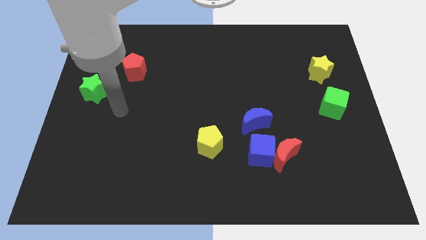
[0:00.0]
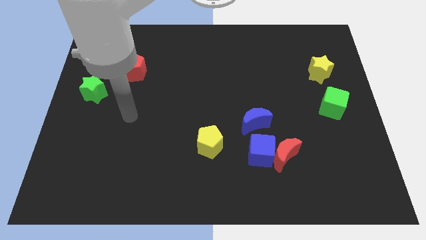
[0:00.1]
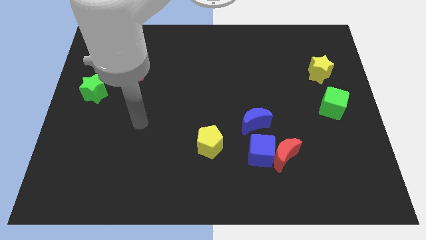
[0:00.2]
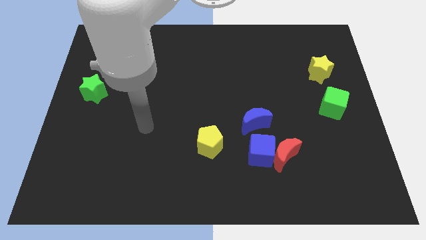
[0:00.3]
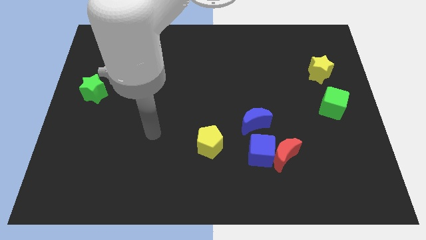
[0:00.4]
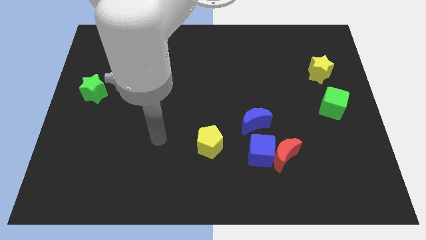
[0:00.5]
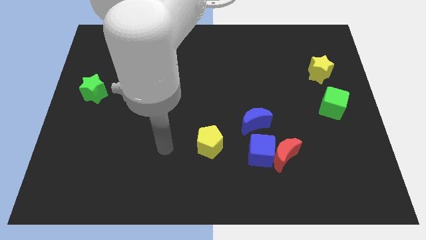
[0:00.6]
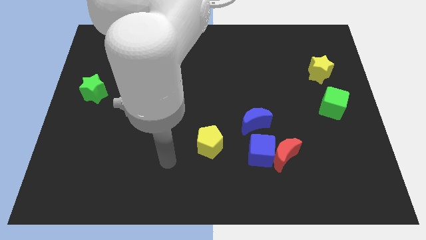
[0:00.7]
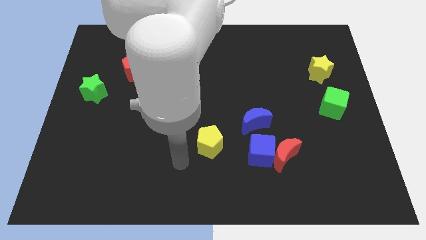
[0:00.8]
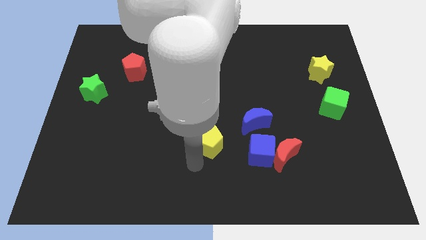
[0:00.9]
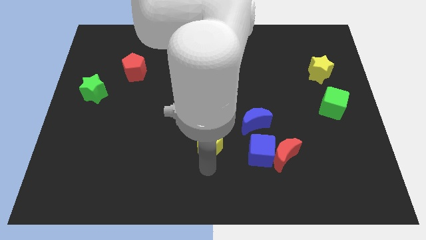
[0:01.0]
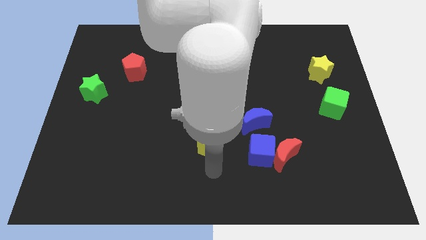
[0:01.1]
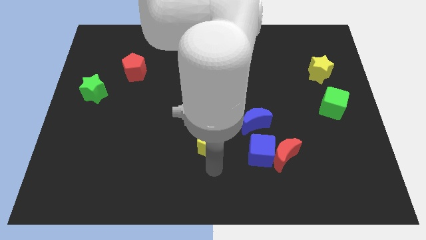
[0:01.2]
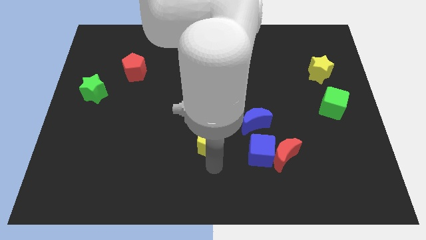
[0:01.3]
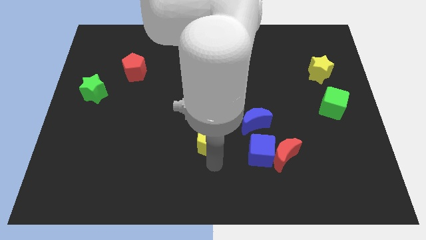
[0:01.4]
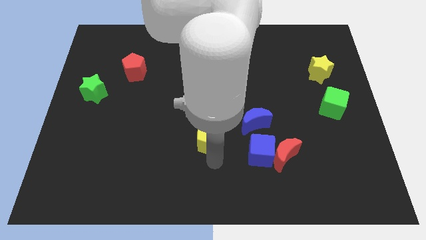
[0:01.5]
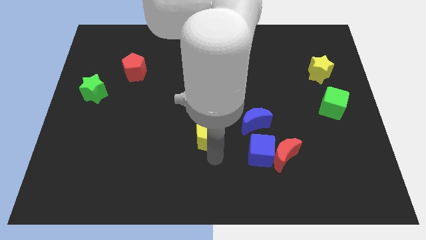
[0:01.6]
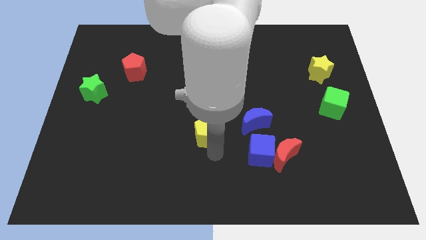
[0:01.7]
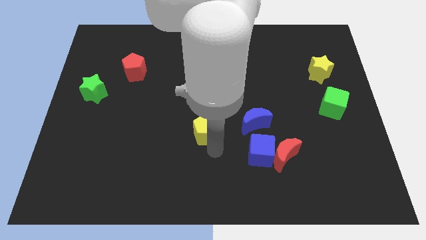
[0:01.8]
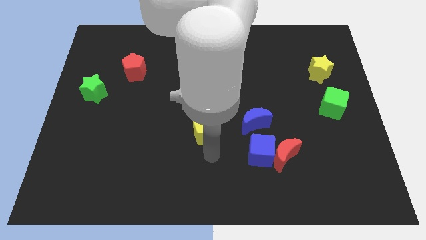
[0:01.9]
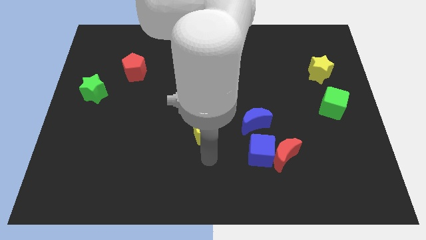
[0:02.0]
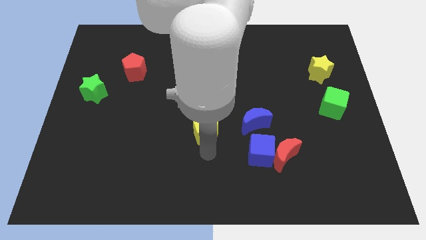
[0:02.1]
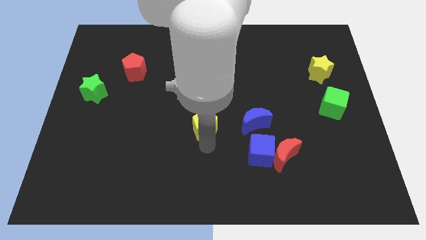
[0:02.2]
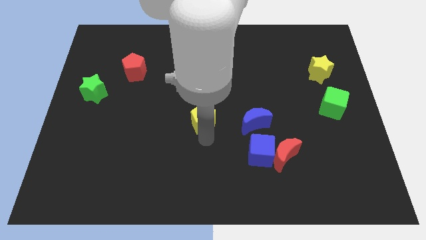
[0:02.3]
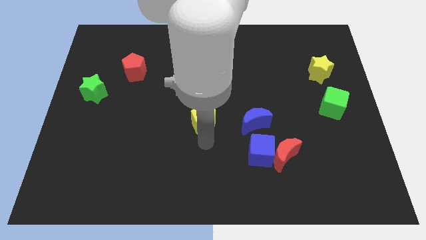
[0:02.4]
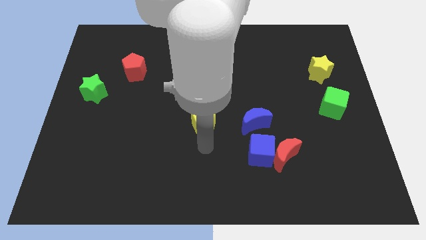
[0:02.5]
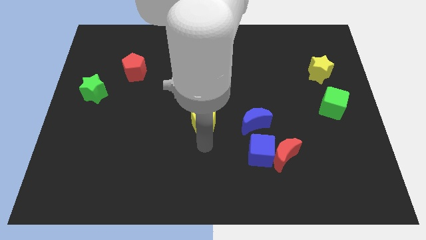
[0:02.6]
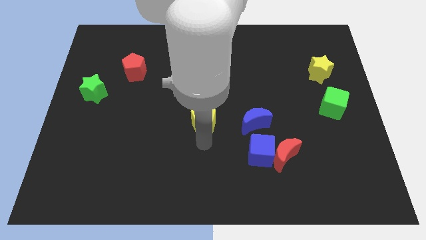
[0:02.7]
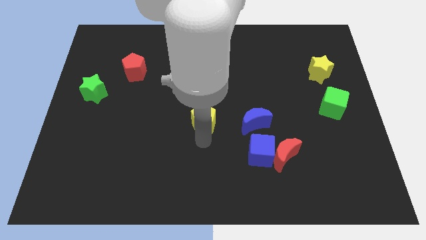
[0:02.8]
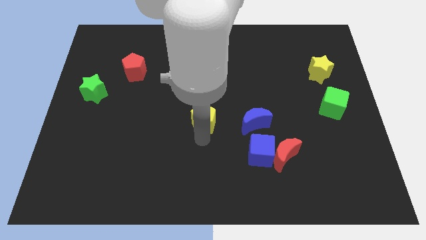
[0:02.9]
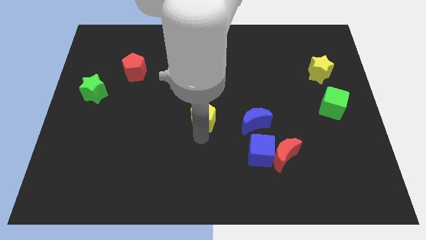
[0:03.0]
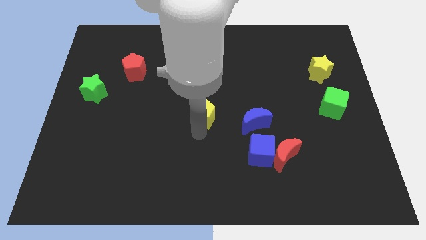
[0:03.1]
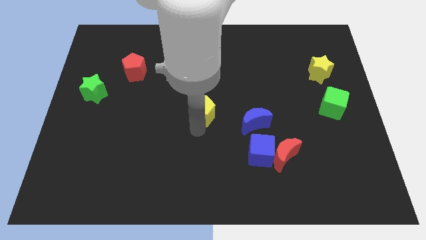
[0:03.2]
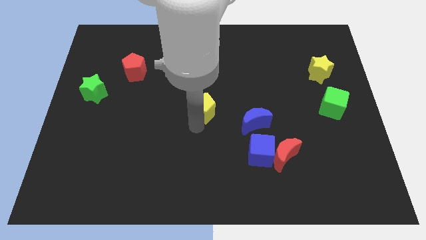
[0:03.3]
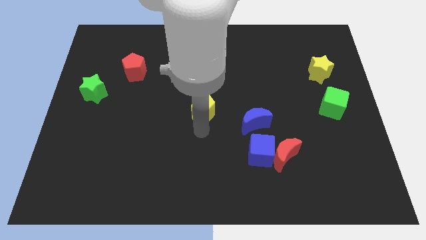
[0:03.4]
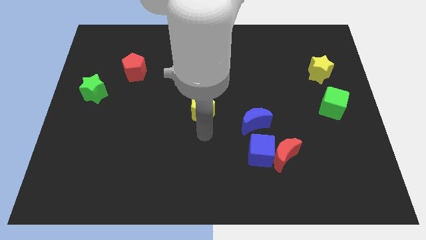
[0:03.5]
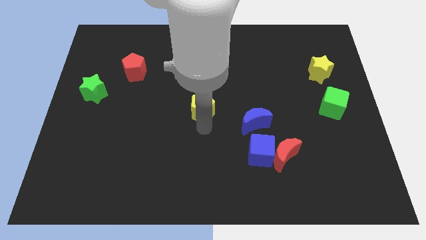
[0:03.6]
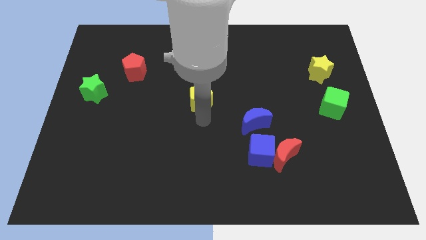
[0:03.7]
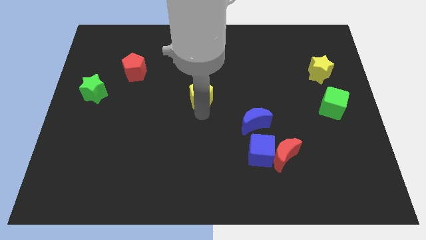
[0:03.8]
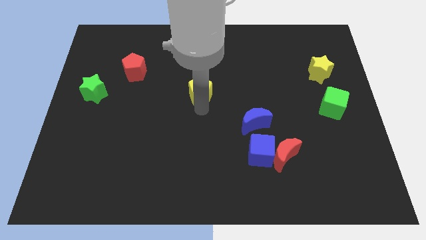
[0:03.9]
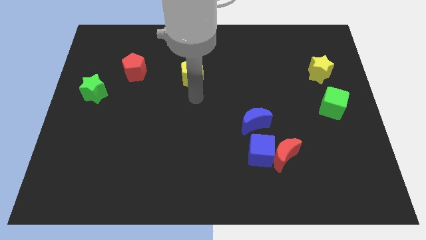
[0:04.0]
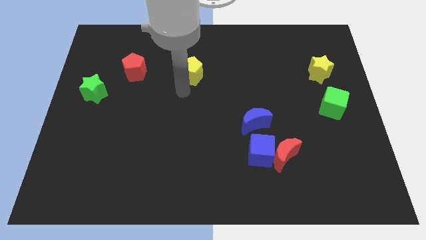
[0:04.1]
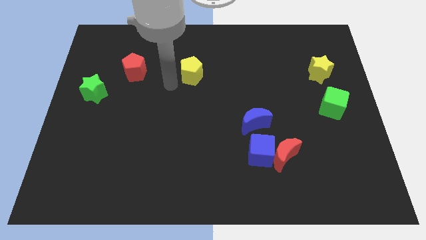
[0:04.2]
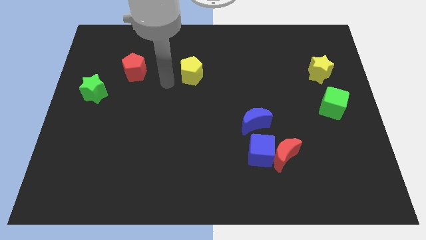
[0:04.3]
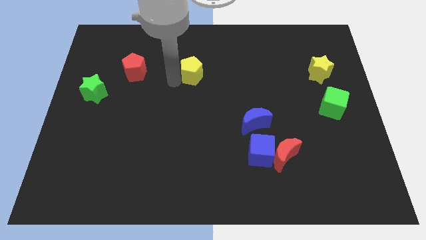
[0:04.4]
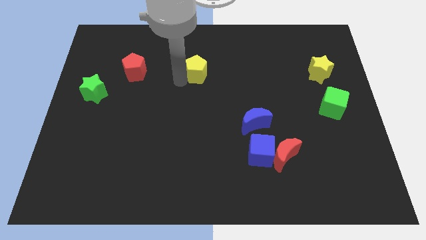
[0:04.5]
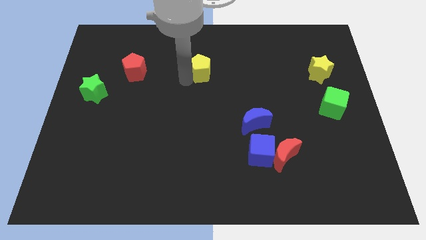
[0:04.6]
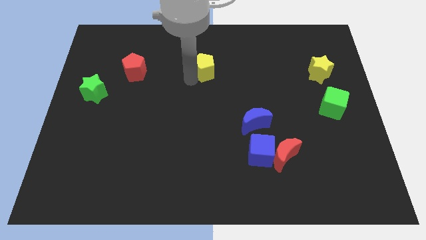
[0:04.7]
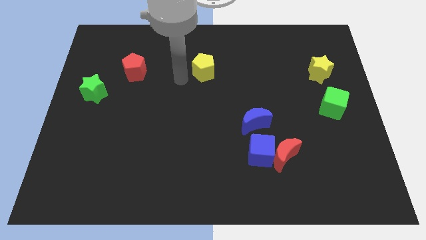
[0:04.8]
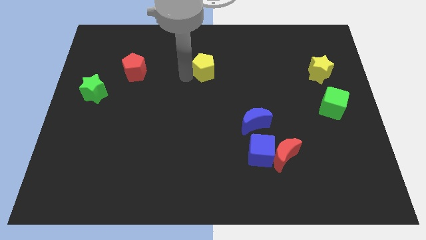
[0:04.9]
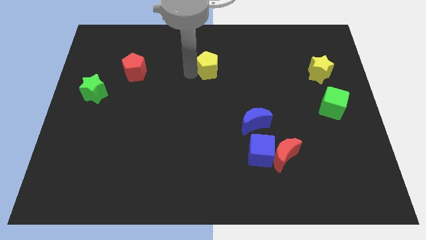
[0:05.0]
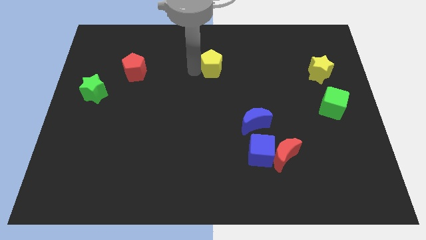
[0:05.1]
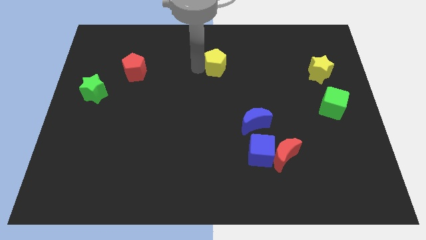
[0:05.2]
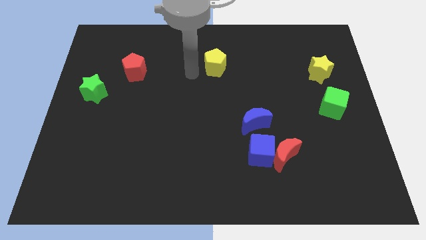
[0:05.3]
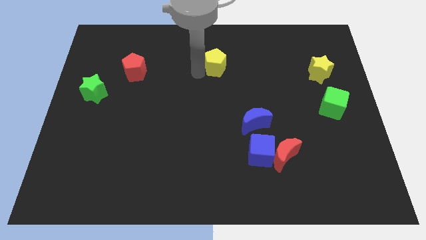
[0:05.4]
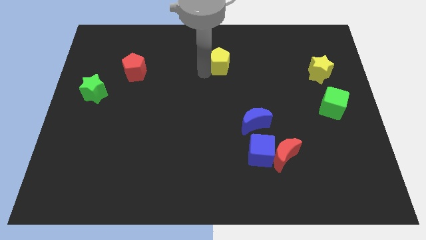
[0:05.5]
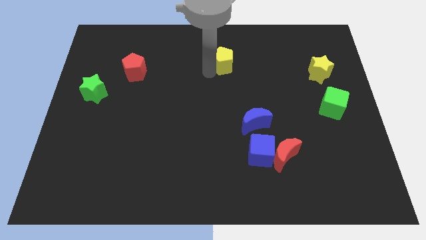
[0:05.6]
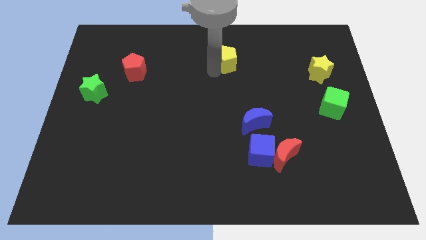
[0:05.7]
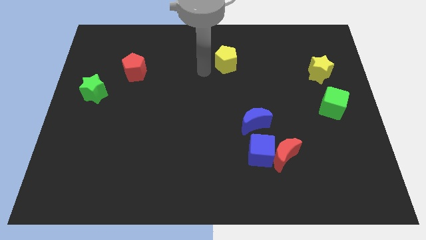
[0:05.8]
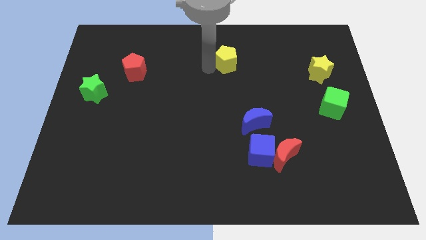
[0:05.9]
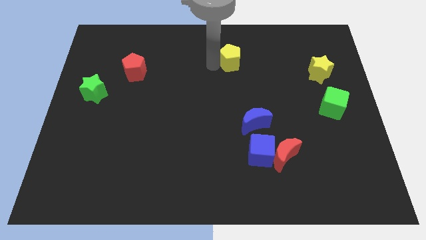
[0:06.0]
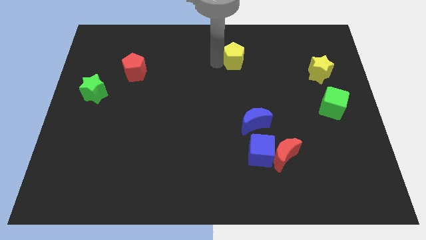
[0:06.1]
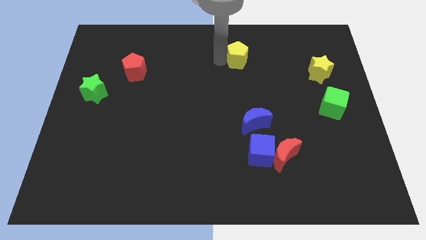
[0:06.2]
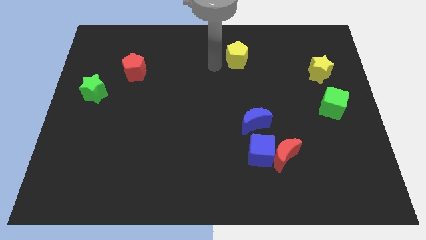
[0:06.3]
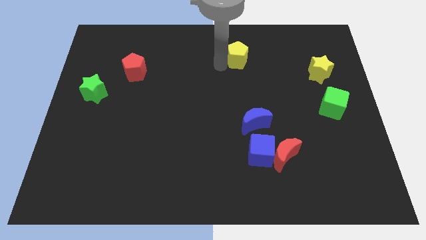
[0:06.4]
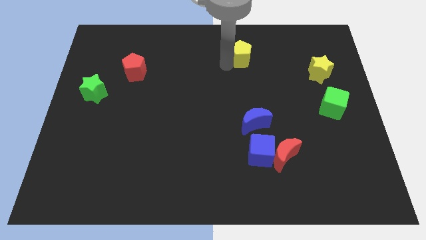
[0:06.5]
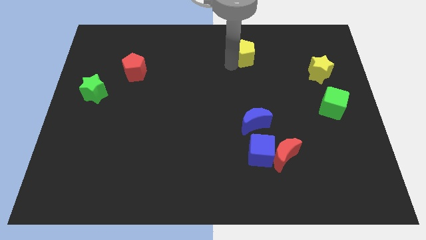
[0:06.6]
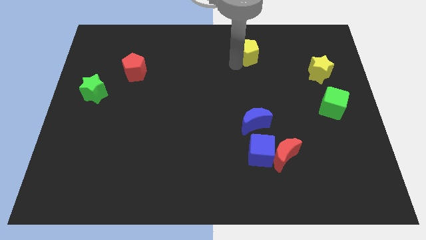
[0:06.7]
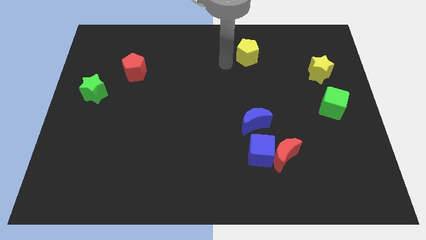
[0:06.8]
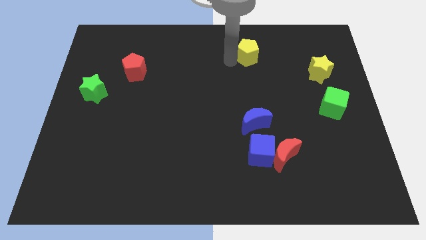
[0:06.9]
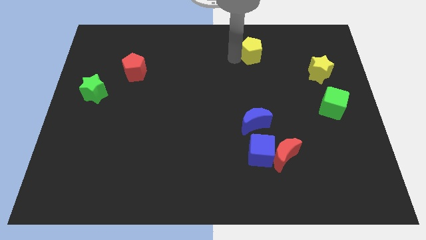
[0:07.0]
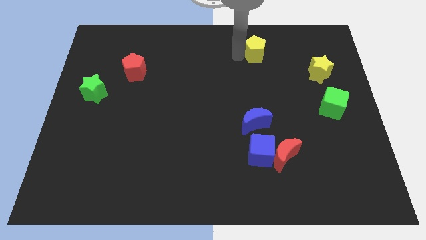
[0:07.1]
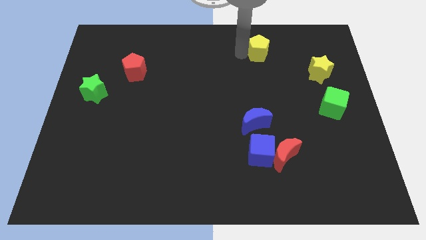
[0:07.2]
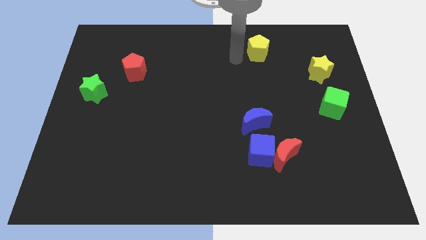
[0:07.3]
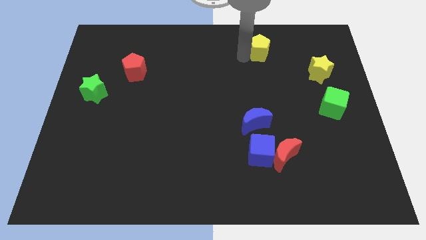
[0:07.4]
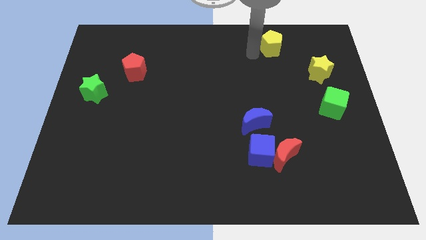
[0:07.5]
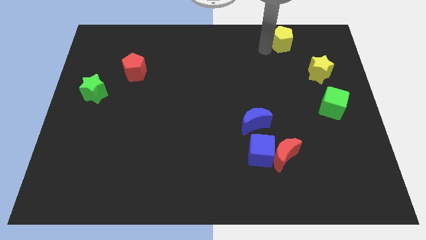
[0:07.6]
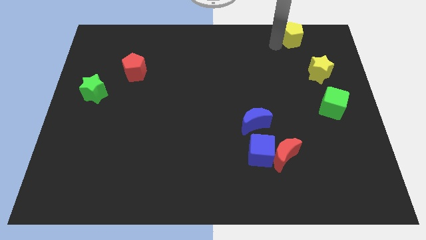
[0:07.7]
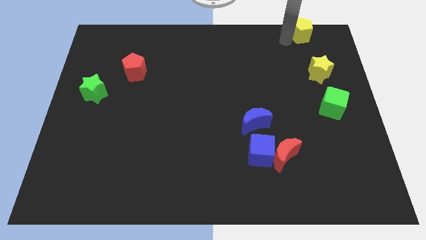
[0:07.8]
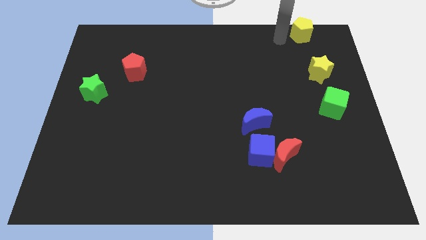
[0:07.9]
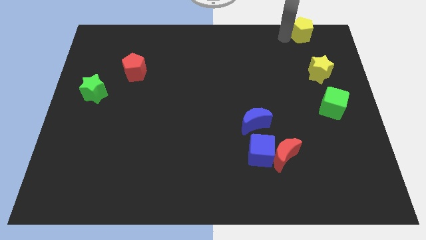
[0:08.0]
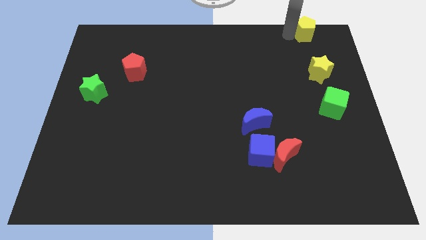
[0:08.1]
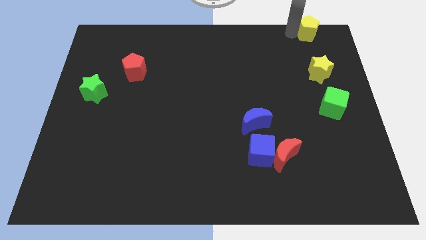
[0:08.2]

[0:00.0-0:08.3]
slide the yellow pentagon to the top right of the board
